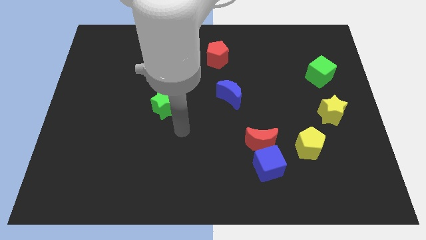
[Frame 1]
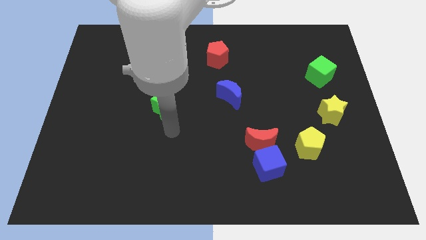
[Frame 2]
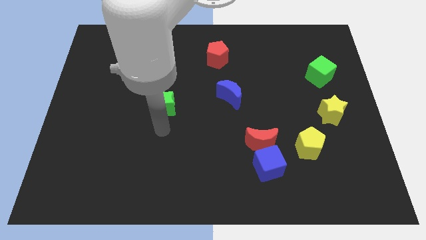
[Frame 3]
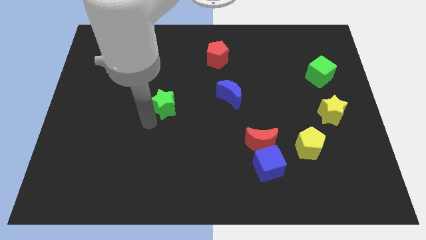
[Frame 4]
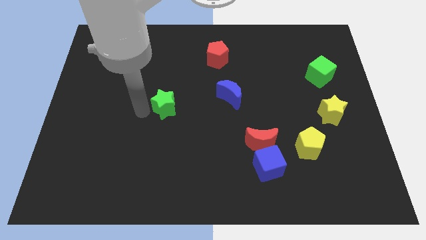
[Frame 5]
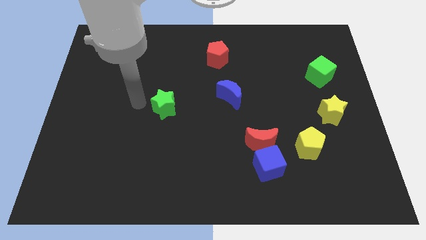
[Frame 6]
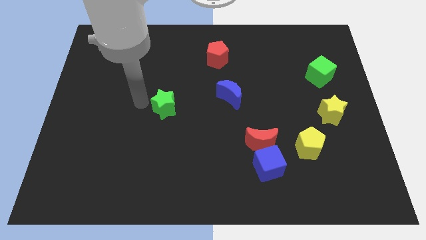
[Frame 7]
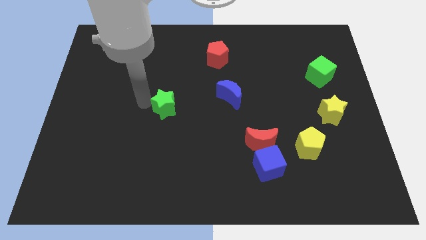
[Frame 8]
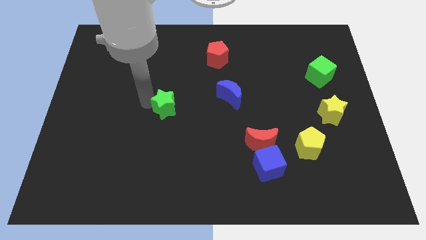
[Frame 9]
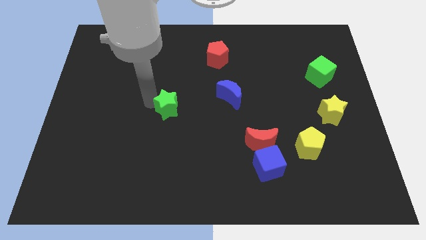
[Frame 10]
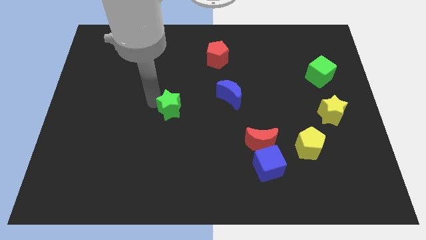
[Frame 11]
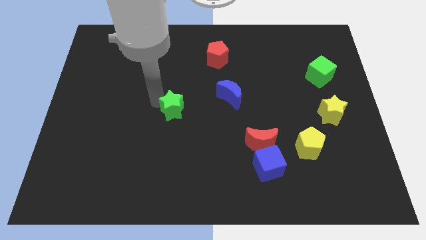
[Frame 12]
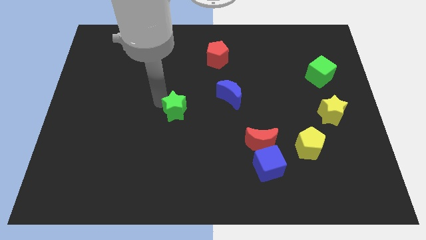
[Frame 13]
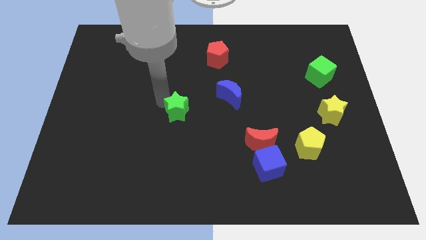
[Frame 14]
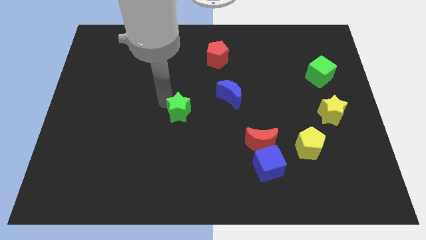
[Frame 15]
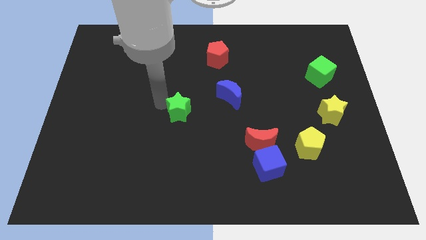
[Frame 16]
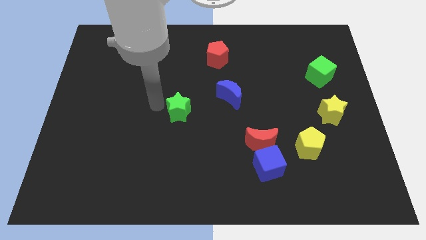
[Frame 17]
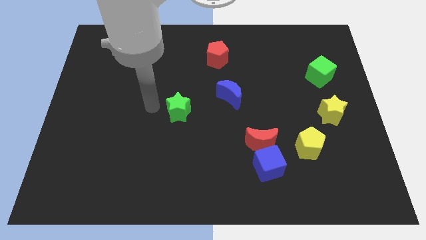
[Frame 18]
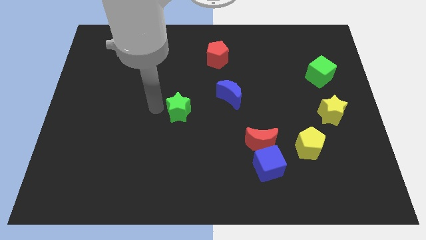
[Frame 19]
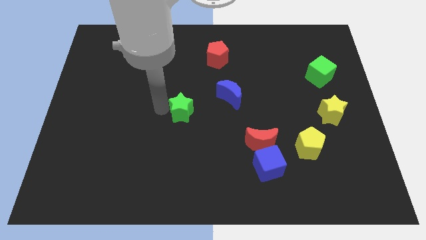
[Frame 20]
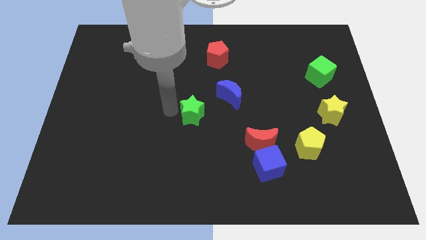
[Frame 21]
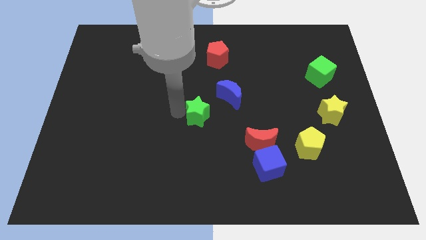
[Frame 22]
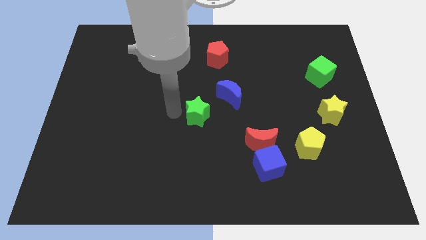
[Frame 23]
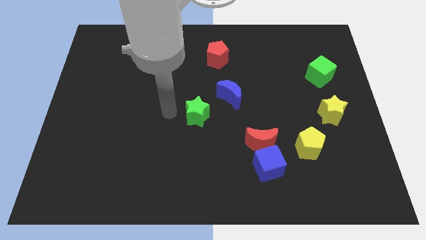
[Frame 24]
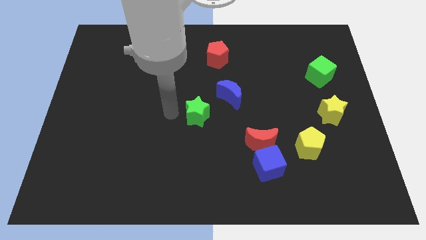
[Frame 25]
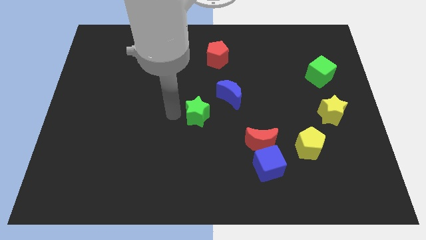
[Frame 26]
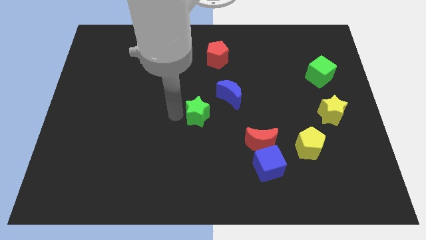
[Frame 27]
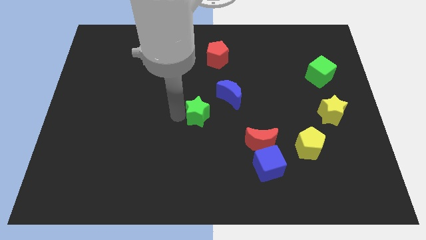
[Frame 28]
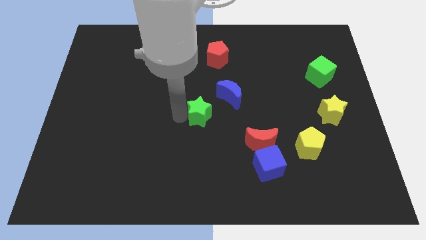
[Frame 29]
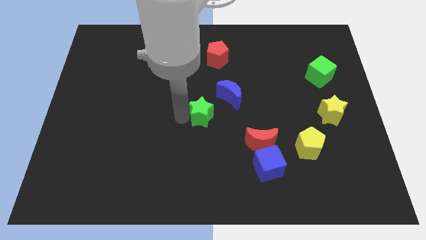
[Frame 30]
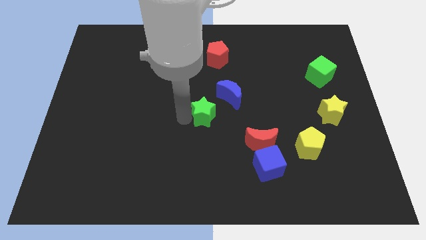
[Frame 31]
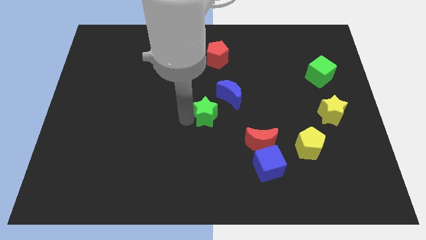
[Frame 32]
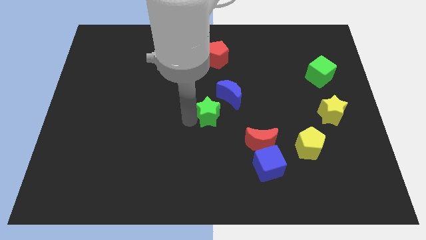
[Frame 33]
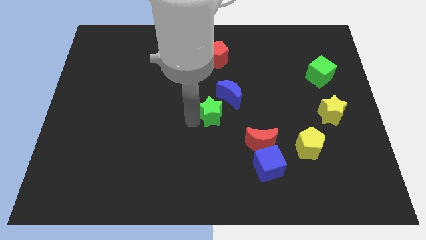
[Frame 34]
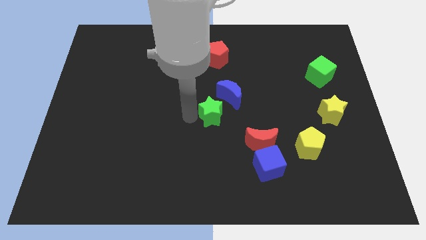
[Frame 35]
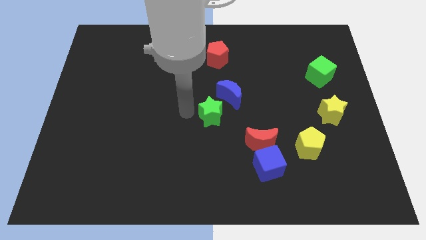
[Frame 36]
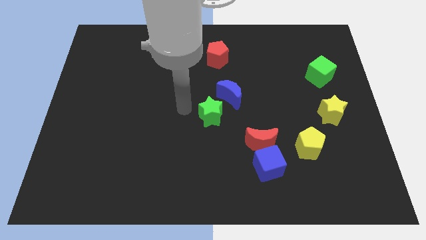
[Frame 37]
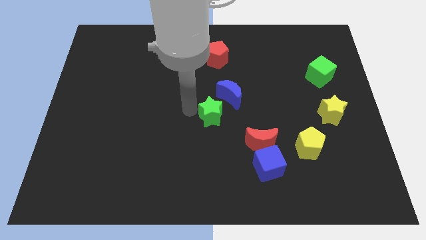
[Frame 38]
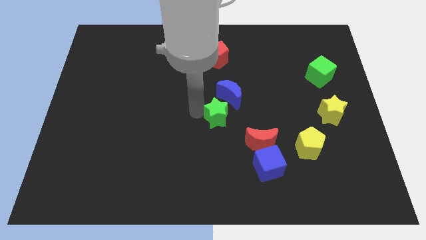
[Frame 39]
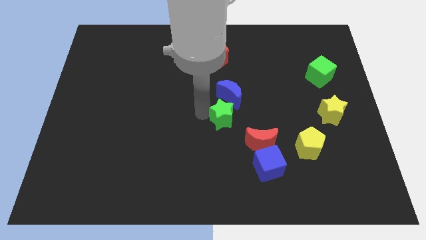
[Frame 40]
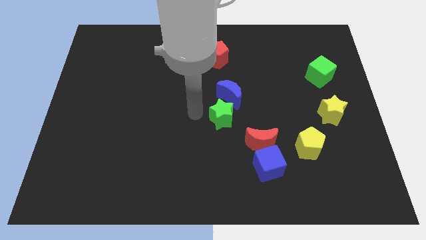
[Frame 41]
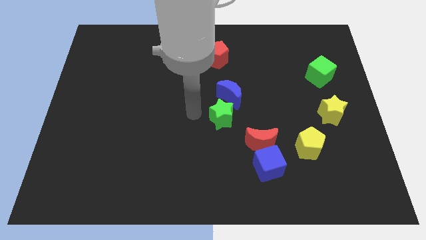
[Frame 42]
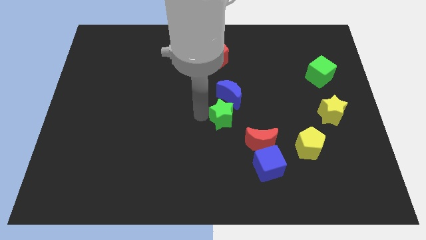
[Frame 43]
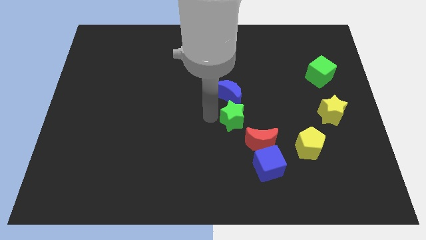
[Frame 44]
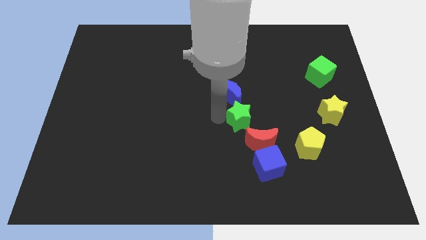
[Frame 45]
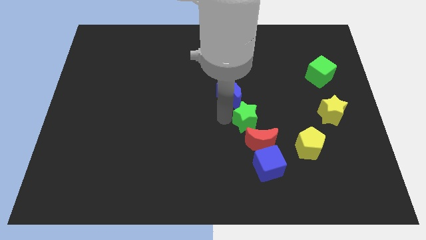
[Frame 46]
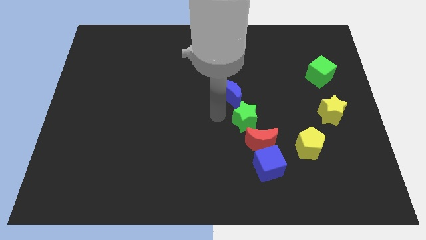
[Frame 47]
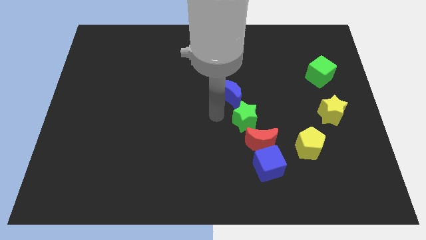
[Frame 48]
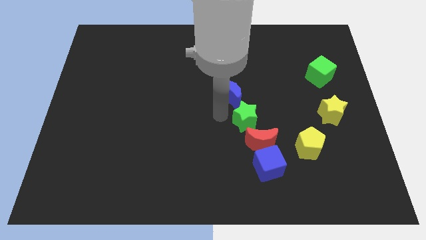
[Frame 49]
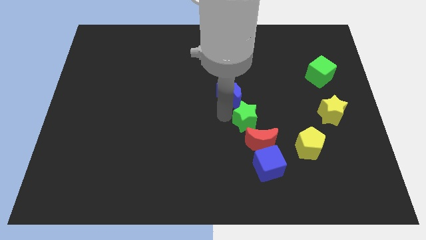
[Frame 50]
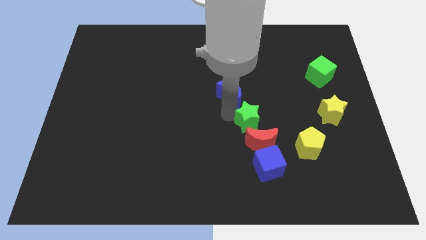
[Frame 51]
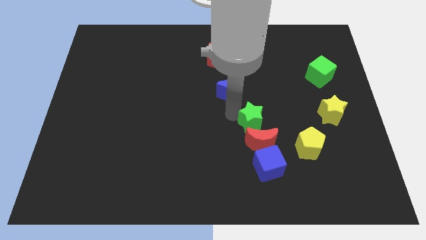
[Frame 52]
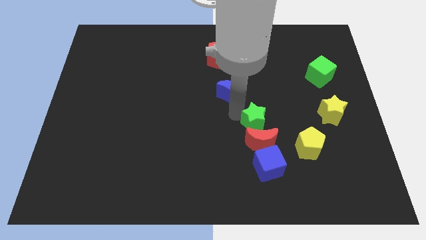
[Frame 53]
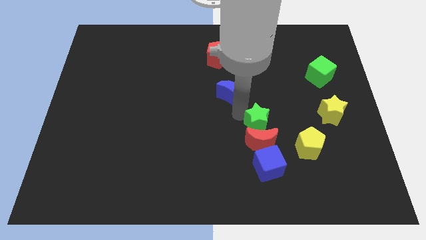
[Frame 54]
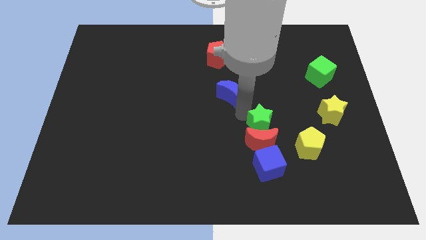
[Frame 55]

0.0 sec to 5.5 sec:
put the green star diagonally up and to the left of the yellow pentagon

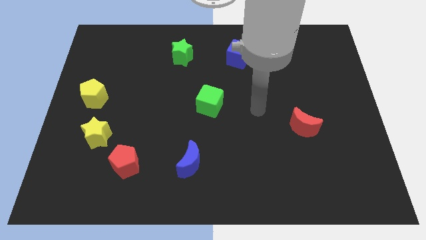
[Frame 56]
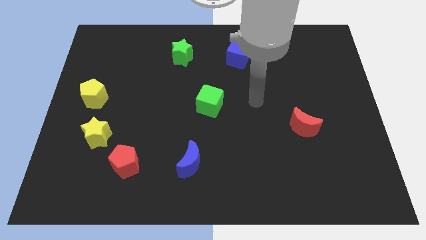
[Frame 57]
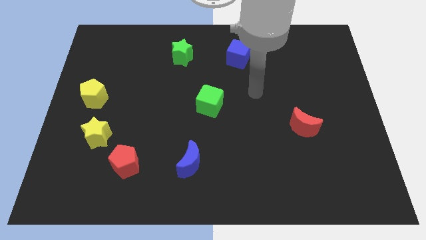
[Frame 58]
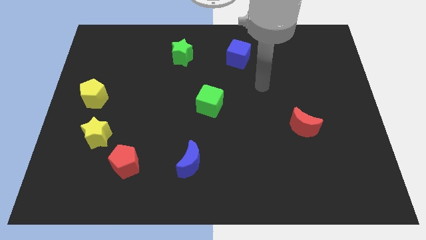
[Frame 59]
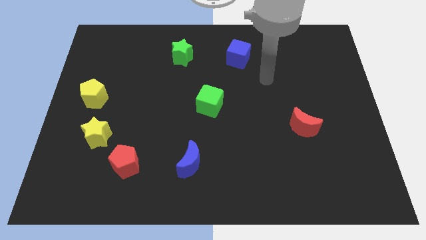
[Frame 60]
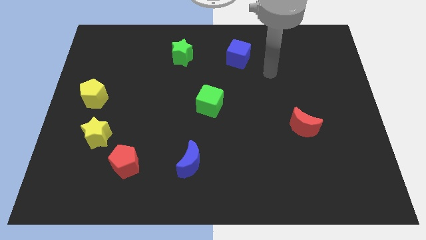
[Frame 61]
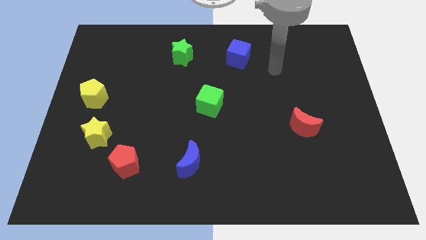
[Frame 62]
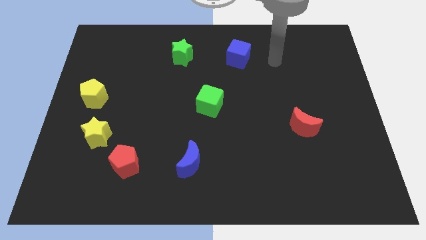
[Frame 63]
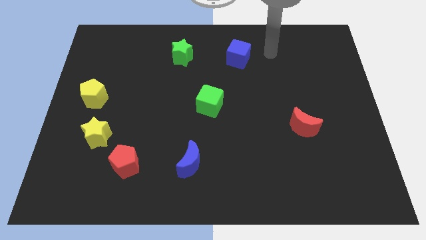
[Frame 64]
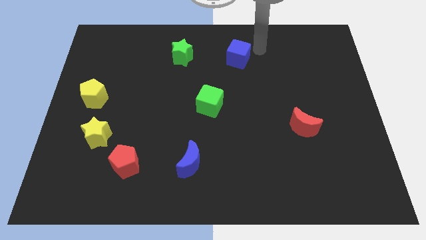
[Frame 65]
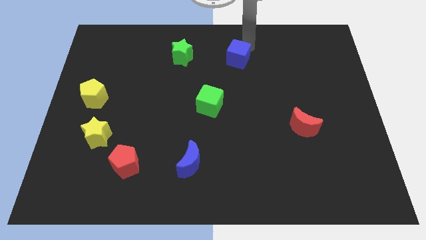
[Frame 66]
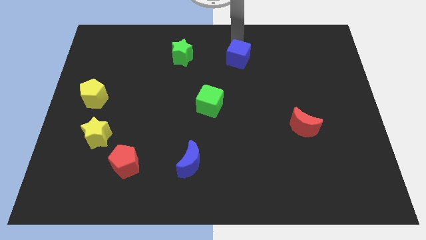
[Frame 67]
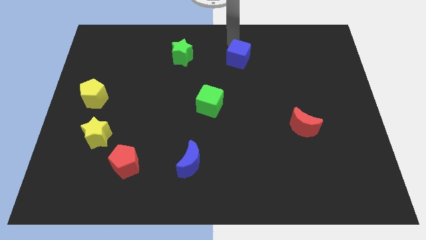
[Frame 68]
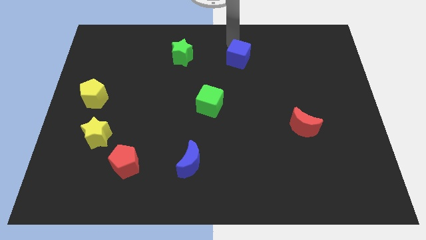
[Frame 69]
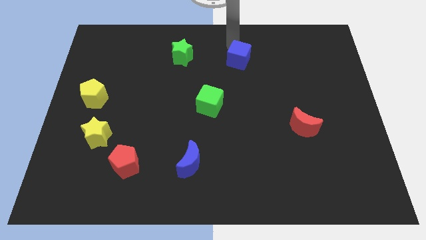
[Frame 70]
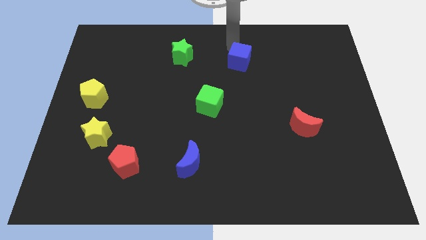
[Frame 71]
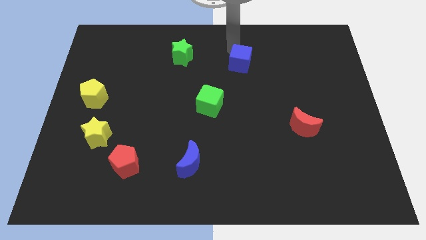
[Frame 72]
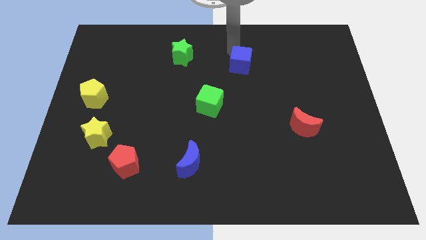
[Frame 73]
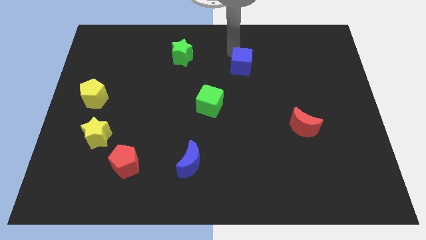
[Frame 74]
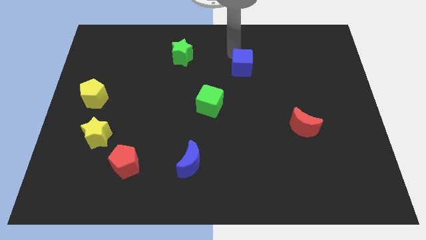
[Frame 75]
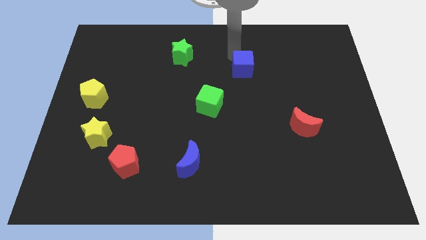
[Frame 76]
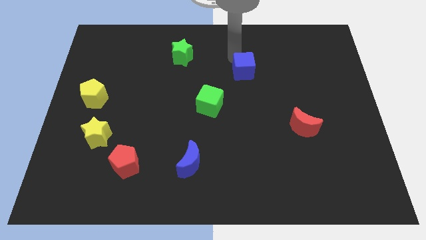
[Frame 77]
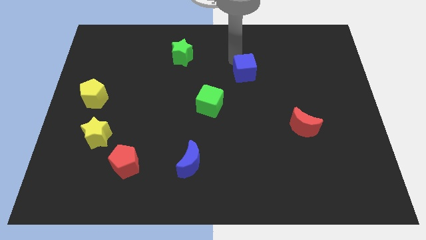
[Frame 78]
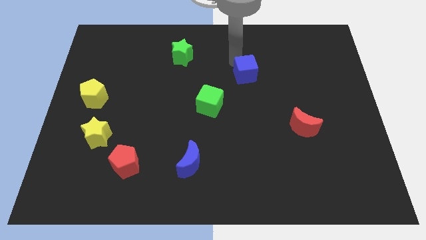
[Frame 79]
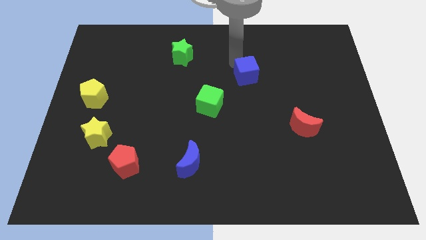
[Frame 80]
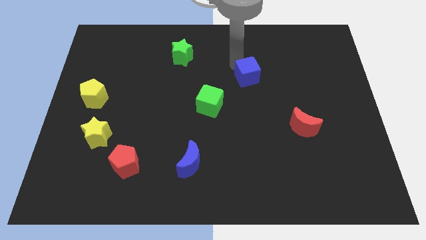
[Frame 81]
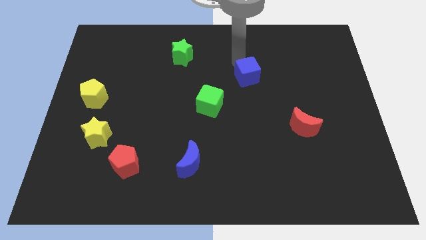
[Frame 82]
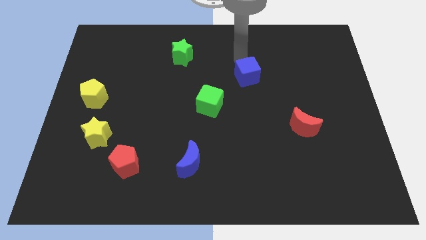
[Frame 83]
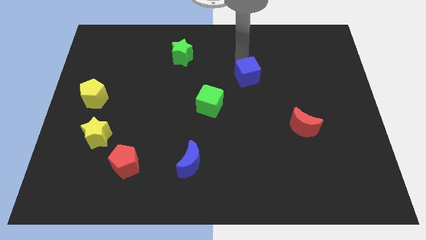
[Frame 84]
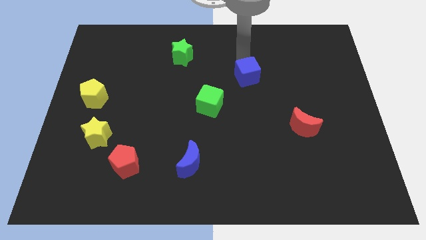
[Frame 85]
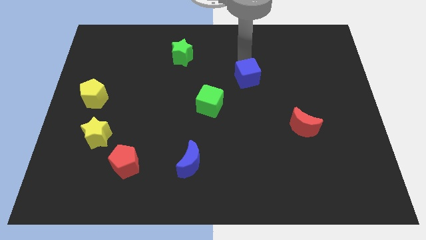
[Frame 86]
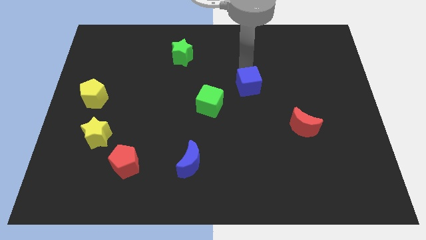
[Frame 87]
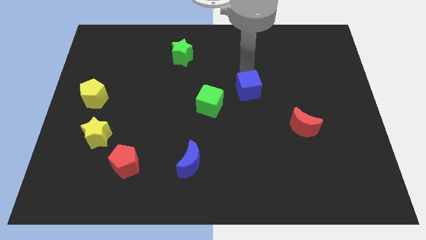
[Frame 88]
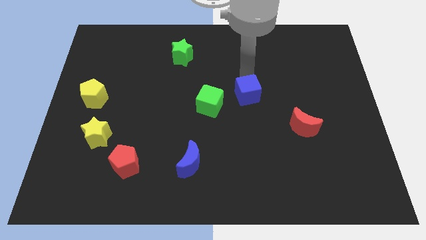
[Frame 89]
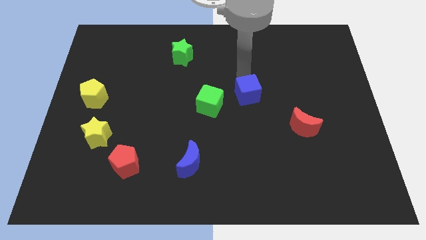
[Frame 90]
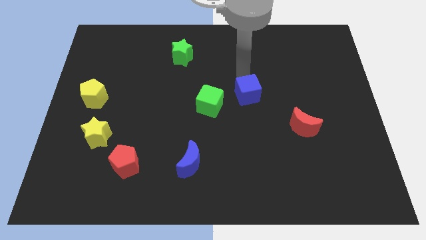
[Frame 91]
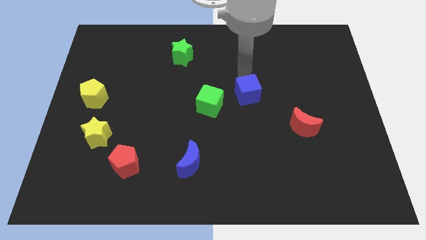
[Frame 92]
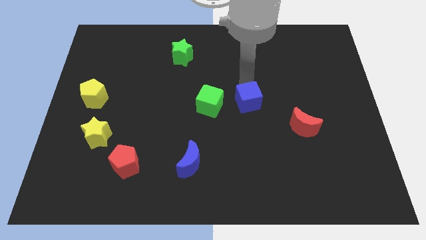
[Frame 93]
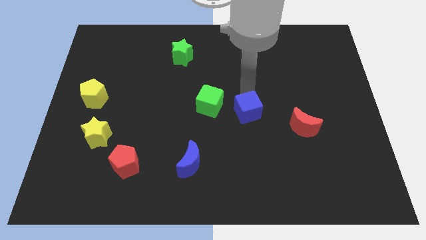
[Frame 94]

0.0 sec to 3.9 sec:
put the blue cube to the left of the red moon
